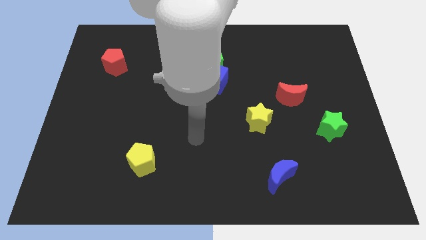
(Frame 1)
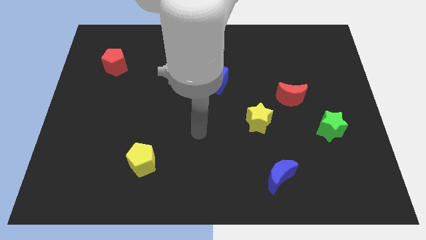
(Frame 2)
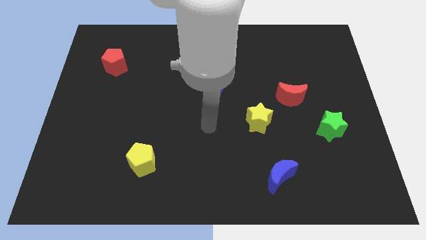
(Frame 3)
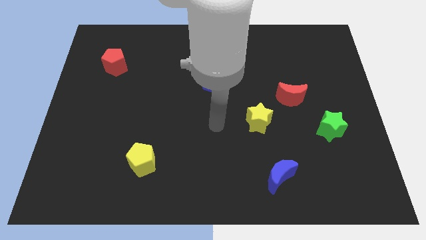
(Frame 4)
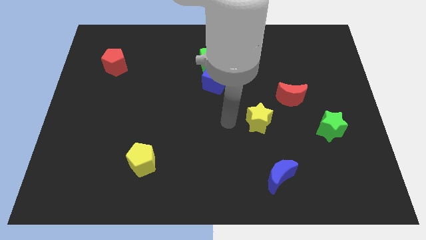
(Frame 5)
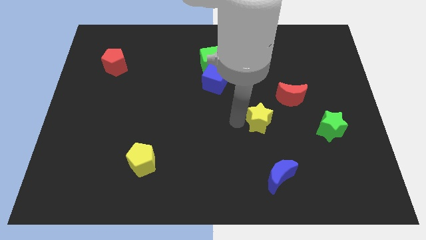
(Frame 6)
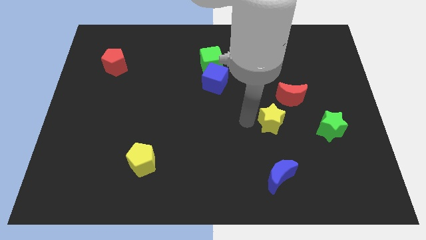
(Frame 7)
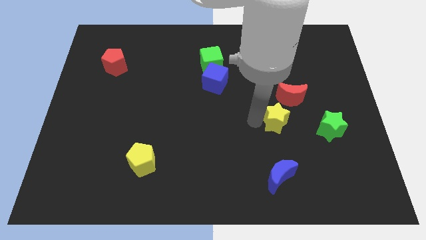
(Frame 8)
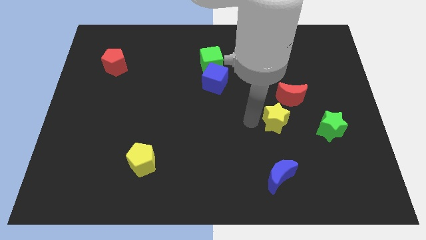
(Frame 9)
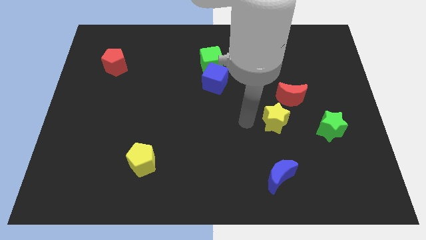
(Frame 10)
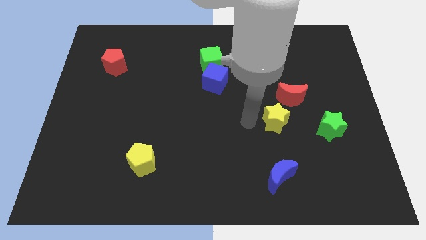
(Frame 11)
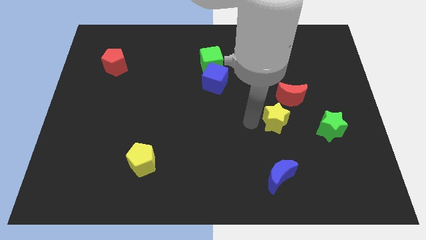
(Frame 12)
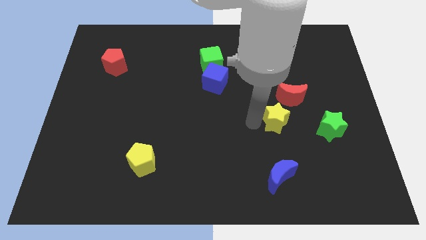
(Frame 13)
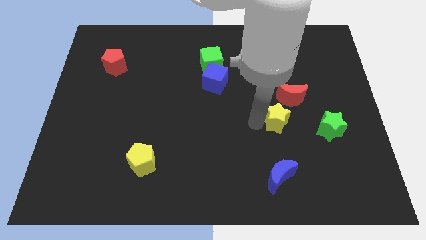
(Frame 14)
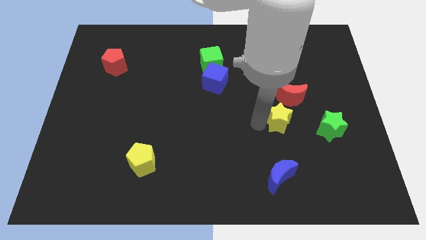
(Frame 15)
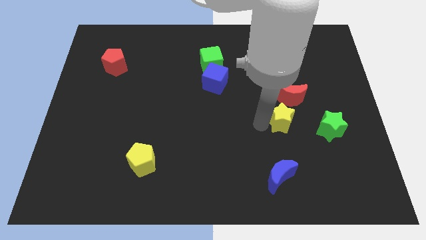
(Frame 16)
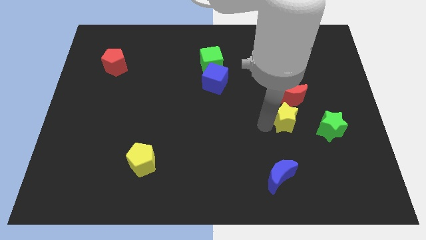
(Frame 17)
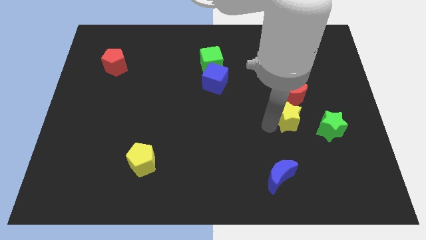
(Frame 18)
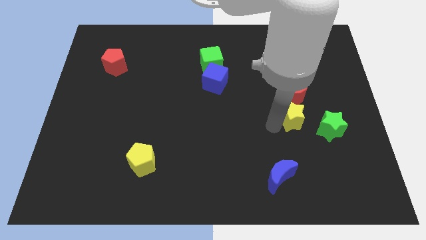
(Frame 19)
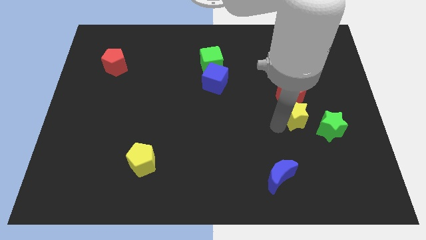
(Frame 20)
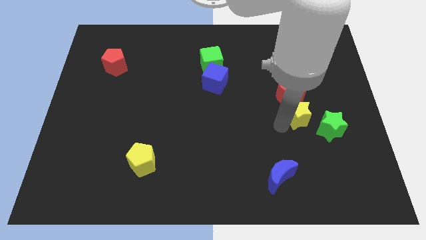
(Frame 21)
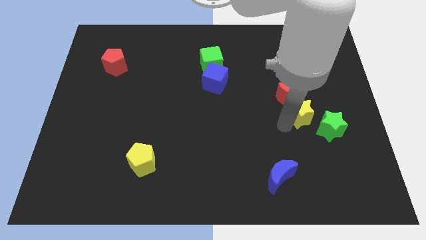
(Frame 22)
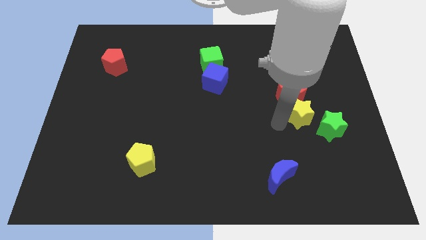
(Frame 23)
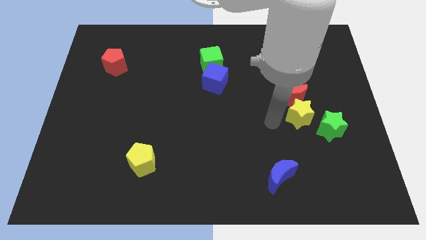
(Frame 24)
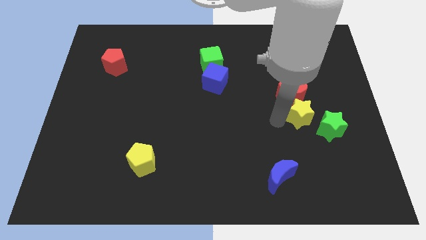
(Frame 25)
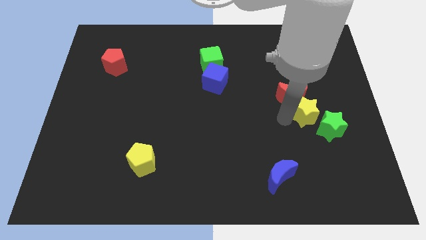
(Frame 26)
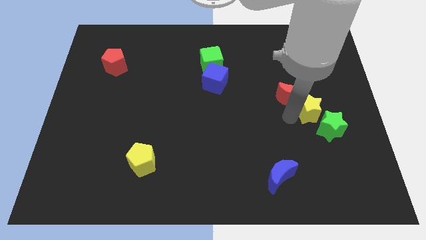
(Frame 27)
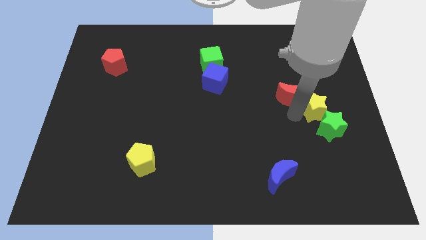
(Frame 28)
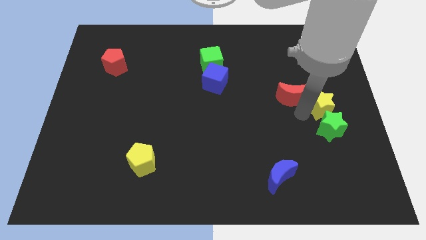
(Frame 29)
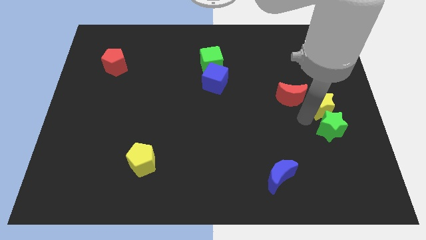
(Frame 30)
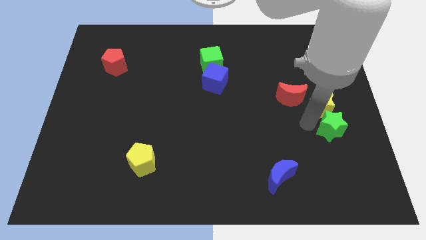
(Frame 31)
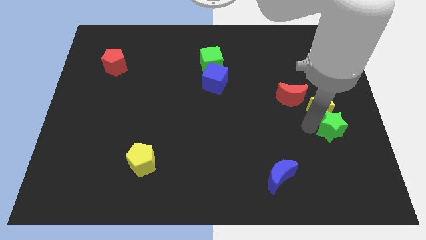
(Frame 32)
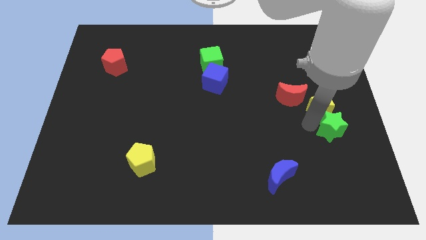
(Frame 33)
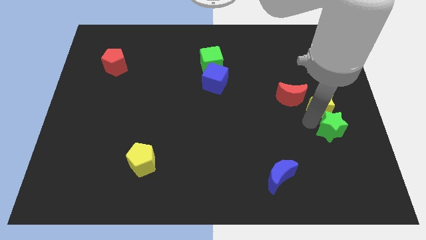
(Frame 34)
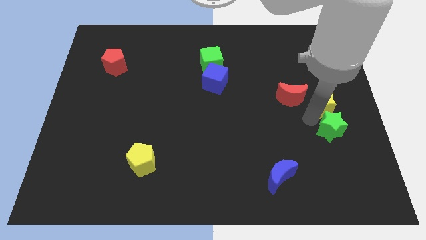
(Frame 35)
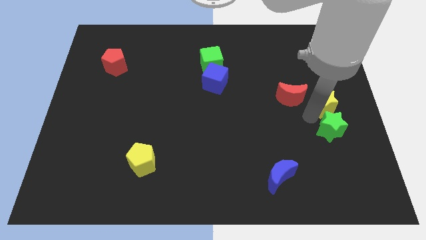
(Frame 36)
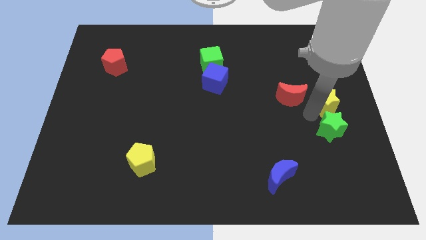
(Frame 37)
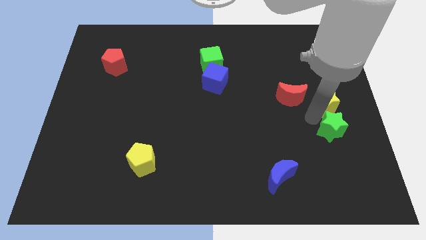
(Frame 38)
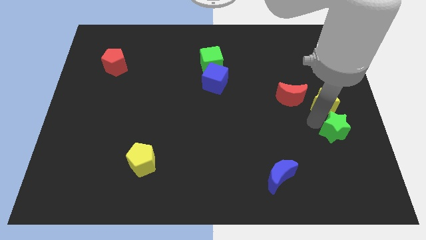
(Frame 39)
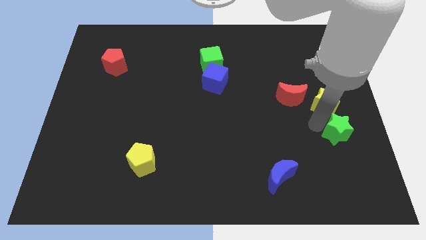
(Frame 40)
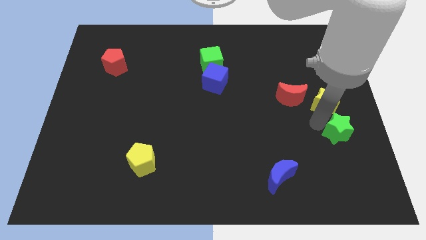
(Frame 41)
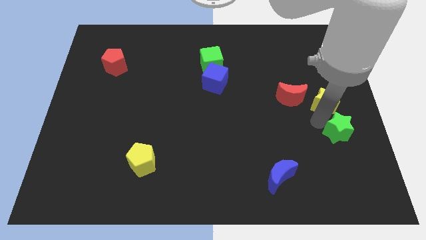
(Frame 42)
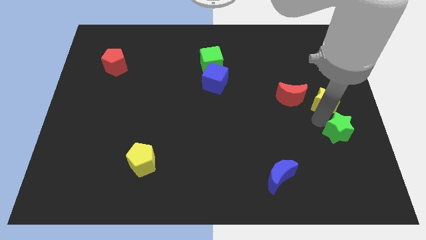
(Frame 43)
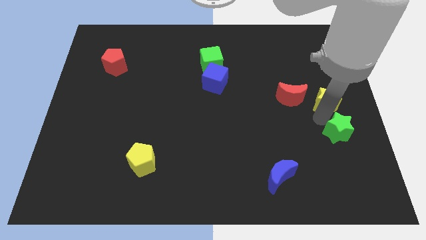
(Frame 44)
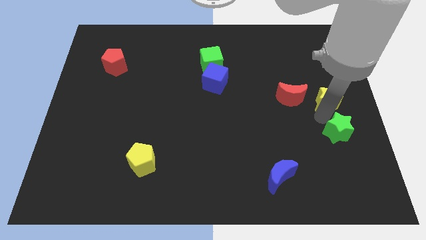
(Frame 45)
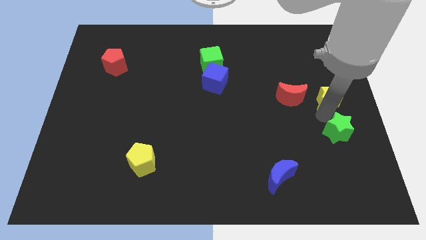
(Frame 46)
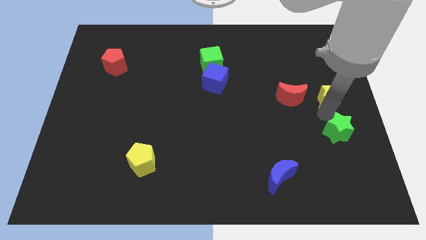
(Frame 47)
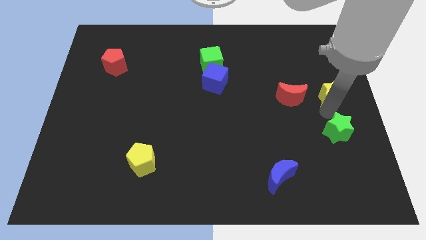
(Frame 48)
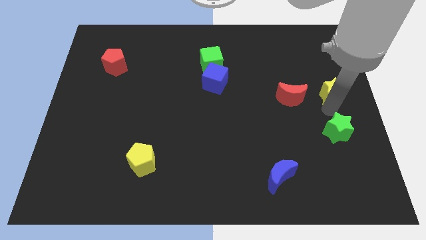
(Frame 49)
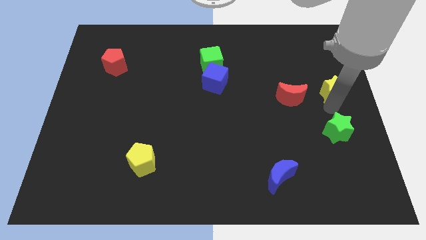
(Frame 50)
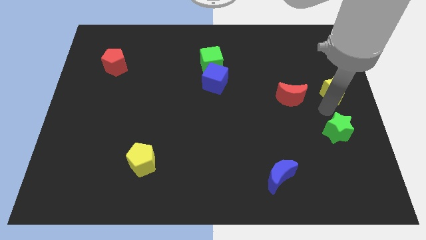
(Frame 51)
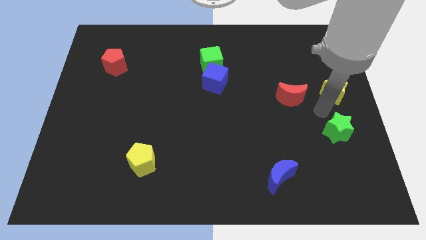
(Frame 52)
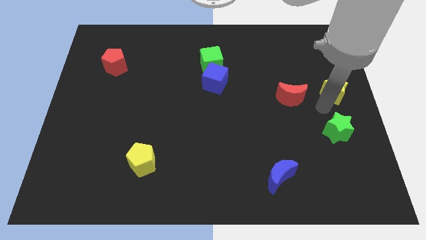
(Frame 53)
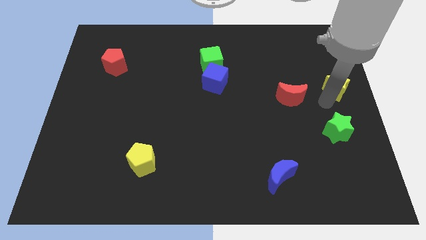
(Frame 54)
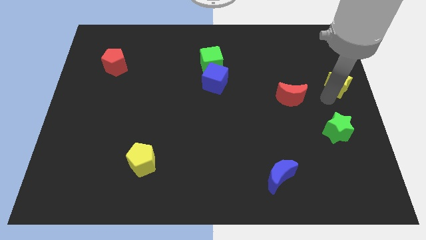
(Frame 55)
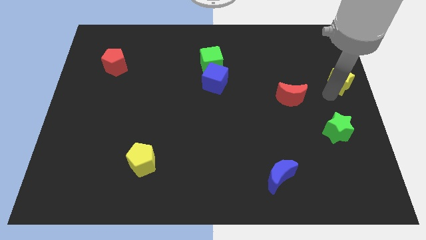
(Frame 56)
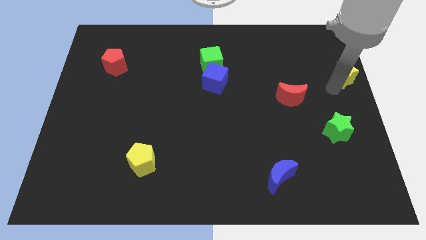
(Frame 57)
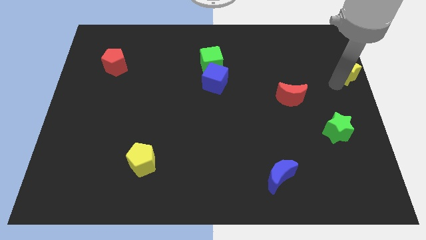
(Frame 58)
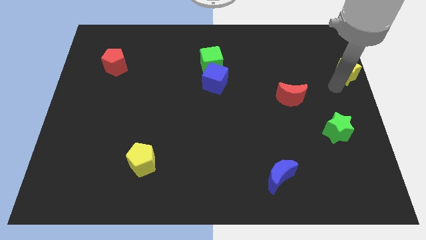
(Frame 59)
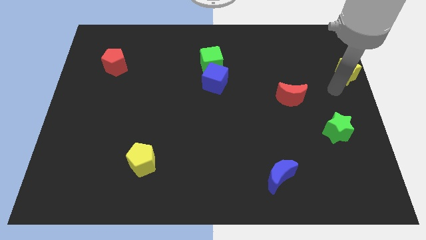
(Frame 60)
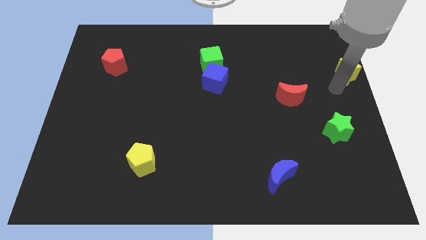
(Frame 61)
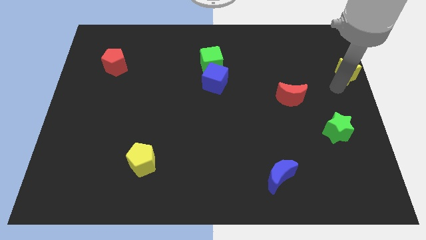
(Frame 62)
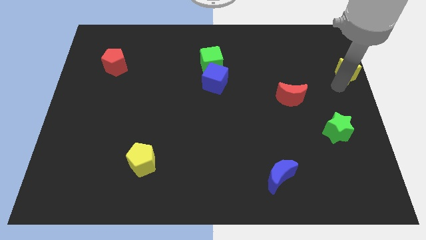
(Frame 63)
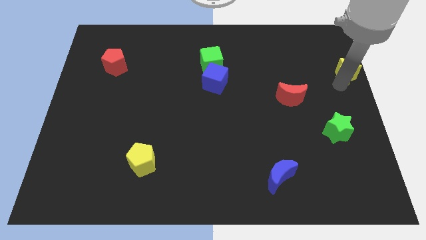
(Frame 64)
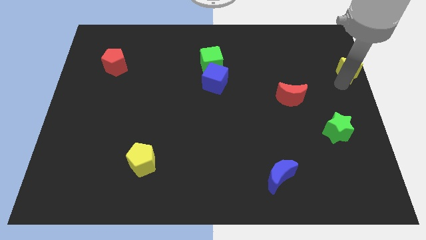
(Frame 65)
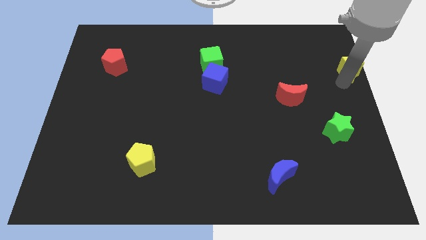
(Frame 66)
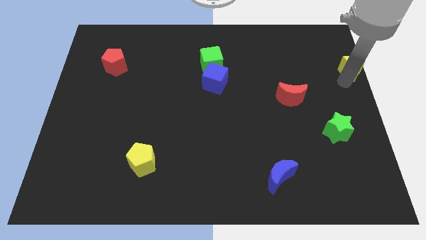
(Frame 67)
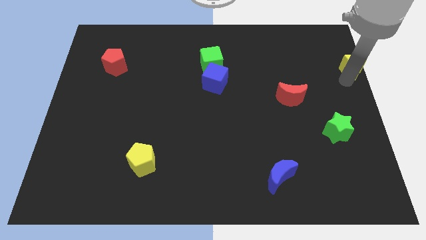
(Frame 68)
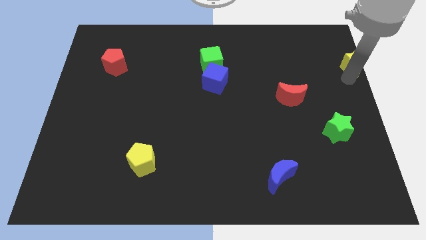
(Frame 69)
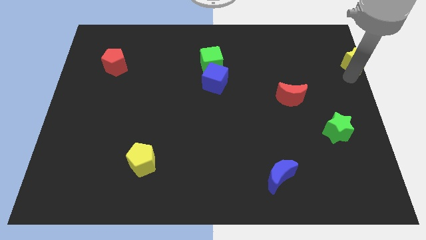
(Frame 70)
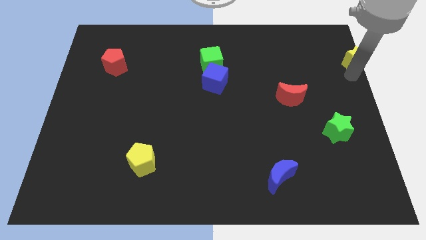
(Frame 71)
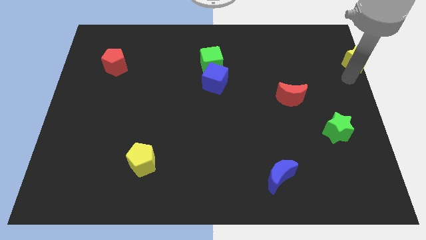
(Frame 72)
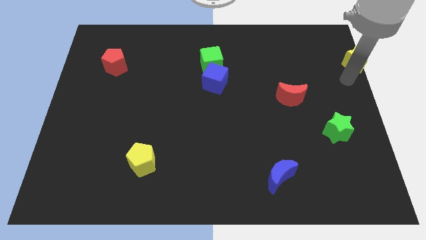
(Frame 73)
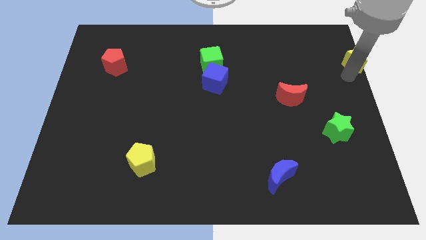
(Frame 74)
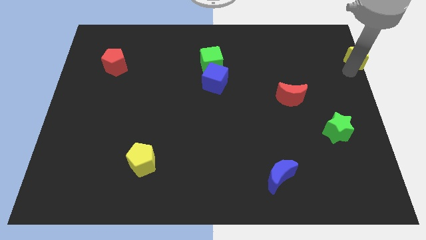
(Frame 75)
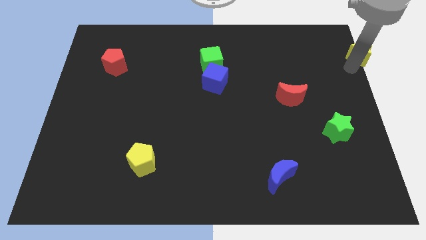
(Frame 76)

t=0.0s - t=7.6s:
push the yellow star to the top right corner
